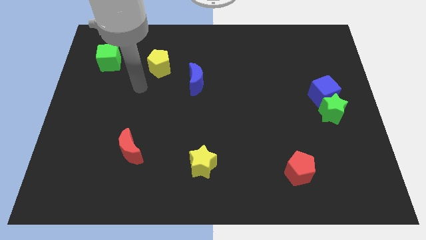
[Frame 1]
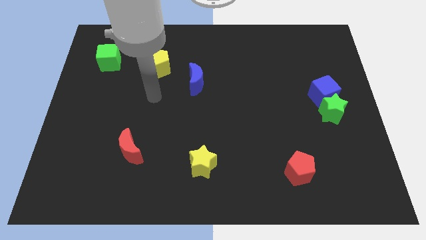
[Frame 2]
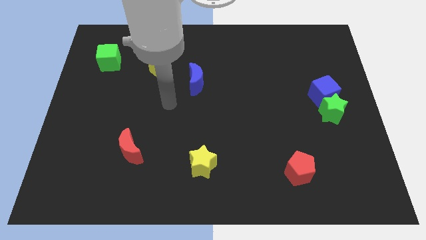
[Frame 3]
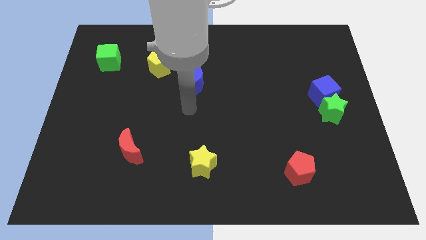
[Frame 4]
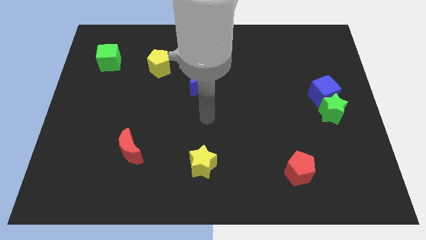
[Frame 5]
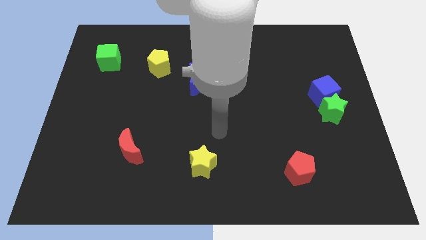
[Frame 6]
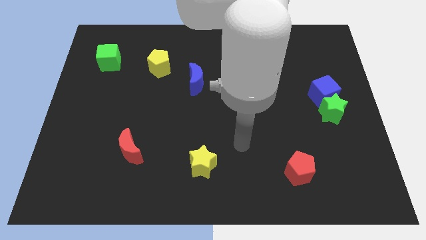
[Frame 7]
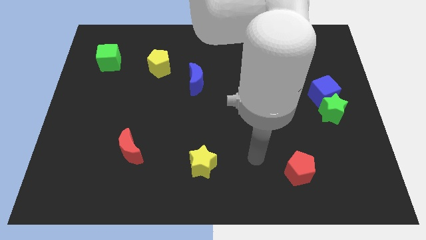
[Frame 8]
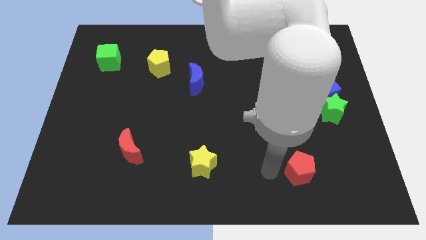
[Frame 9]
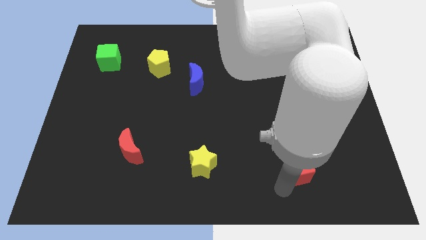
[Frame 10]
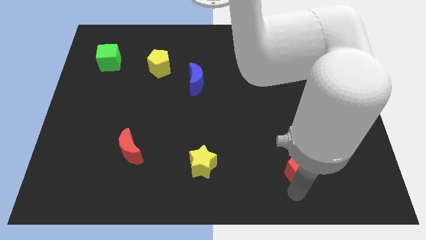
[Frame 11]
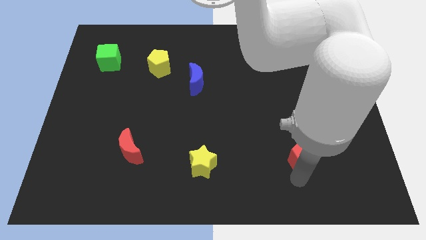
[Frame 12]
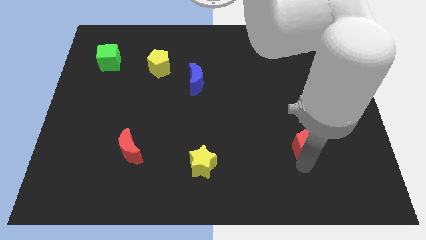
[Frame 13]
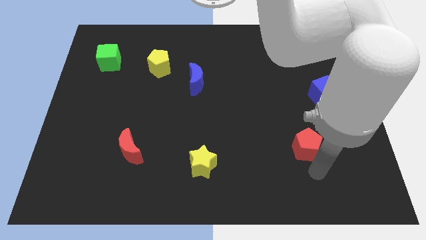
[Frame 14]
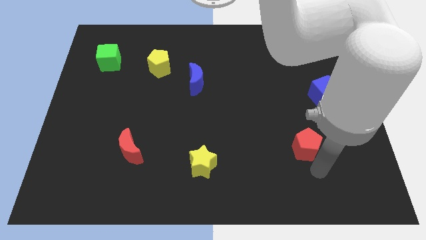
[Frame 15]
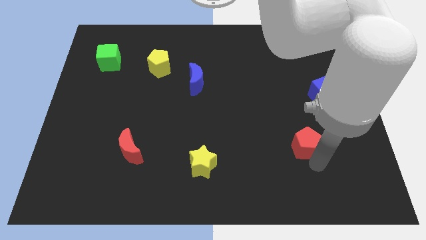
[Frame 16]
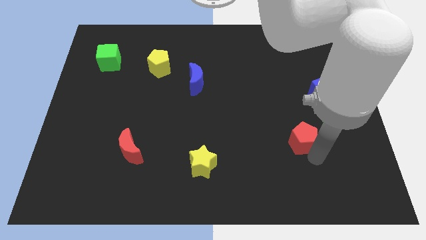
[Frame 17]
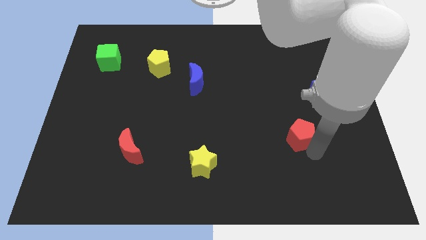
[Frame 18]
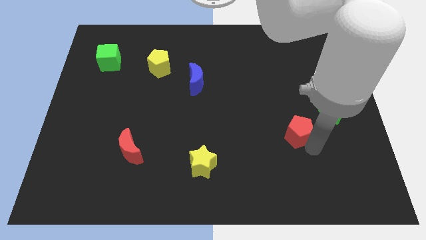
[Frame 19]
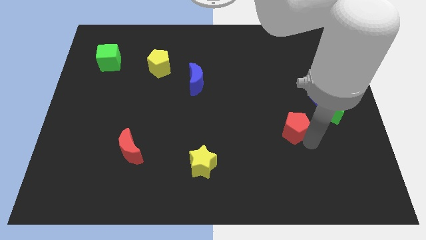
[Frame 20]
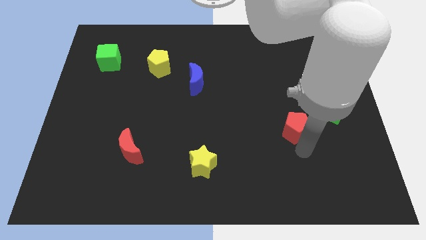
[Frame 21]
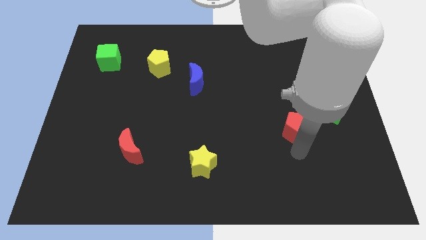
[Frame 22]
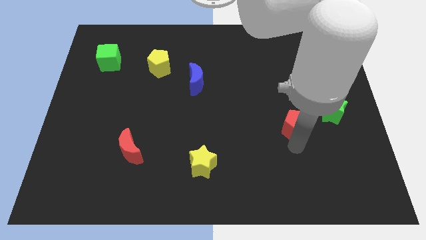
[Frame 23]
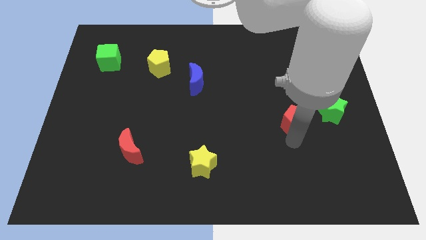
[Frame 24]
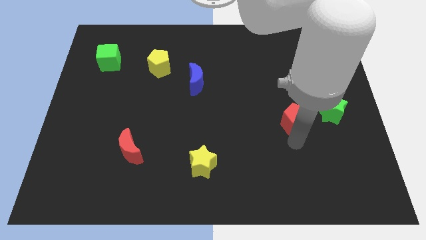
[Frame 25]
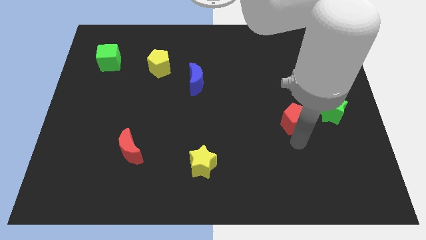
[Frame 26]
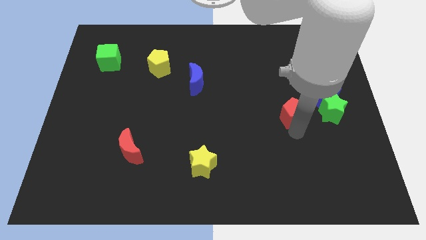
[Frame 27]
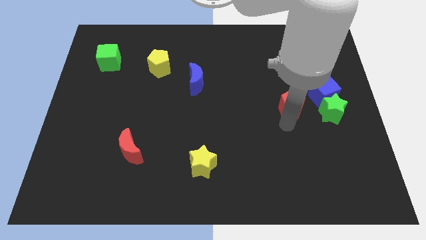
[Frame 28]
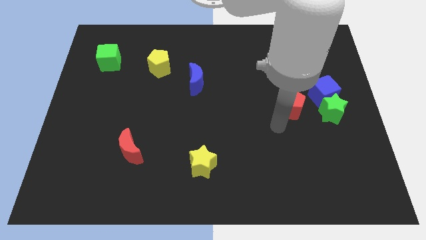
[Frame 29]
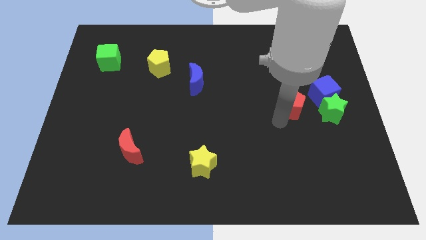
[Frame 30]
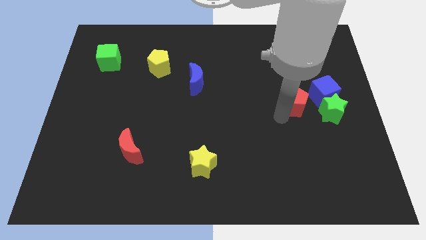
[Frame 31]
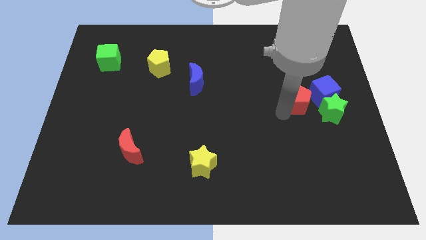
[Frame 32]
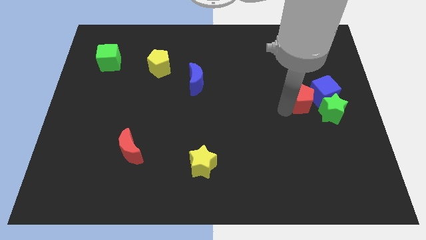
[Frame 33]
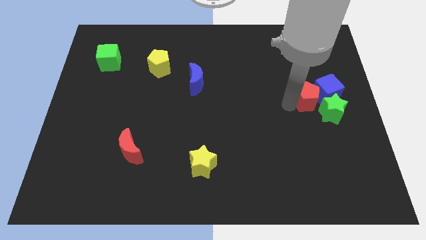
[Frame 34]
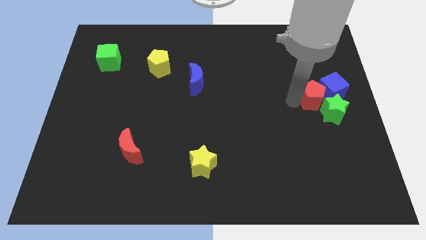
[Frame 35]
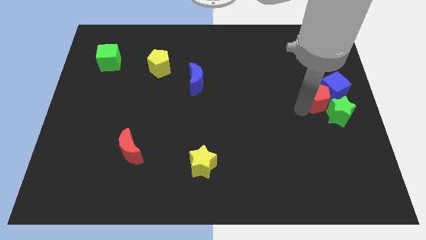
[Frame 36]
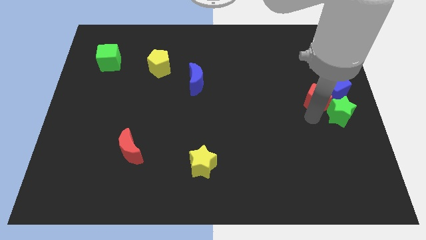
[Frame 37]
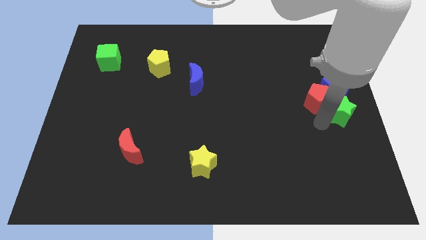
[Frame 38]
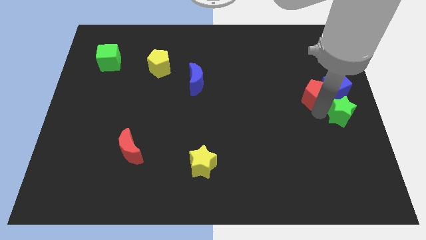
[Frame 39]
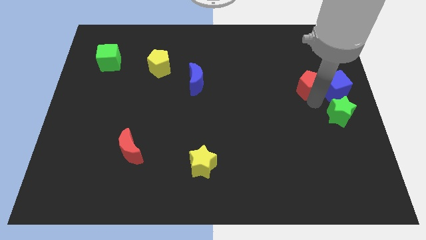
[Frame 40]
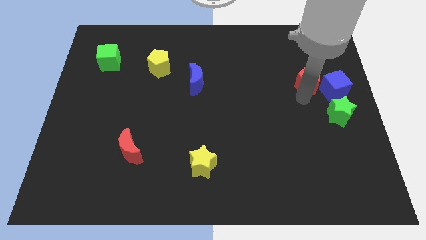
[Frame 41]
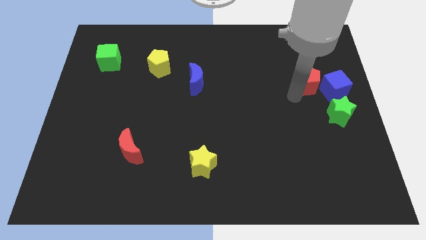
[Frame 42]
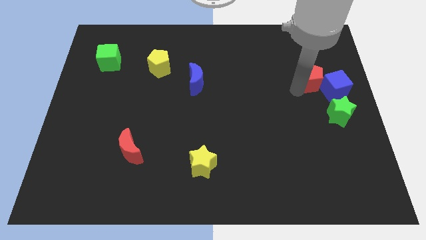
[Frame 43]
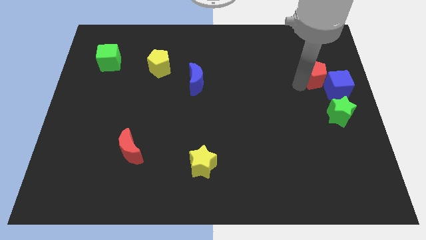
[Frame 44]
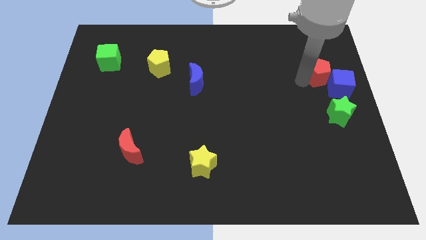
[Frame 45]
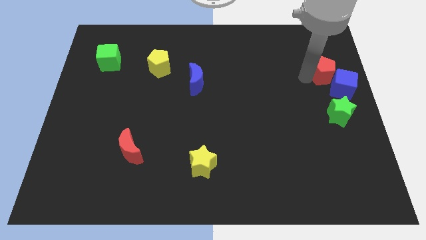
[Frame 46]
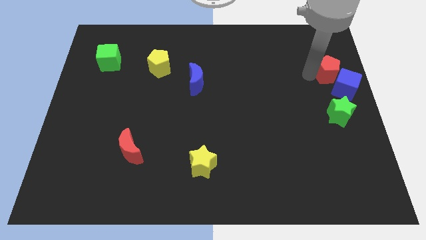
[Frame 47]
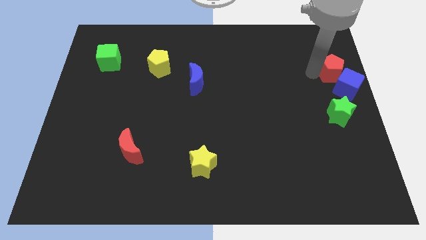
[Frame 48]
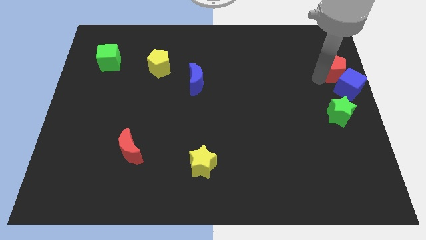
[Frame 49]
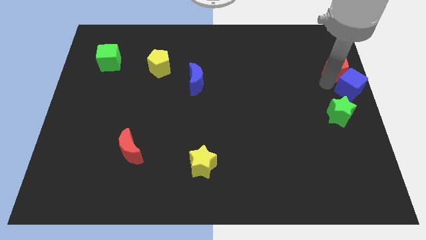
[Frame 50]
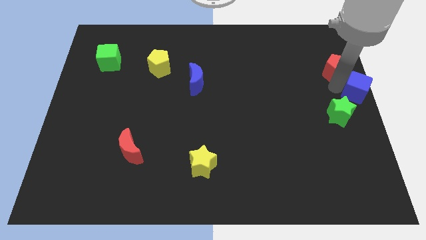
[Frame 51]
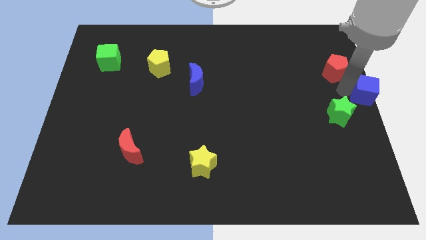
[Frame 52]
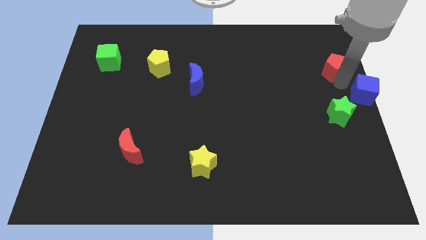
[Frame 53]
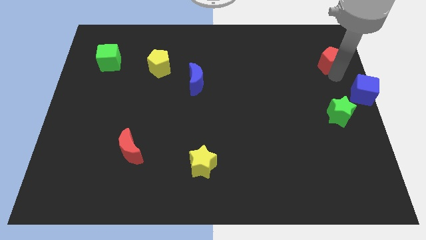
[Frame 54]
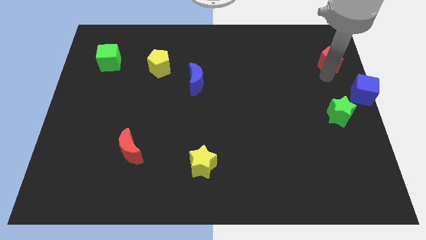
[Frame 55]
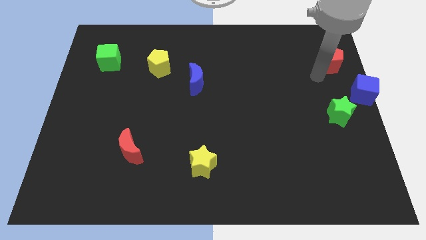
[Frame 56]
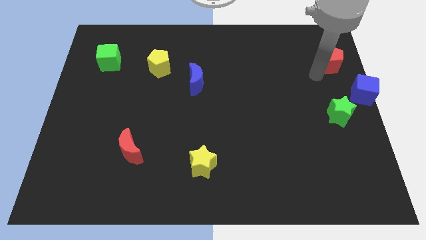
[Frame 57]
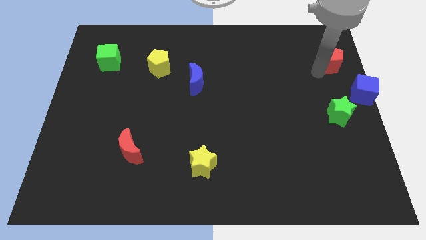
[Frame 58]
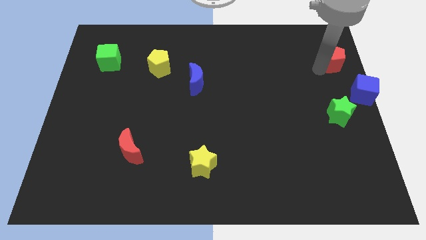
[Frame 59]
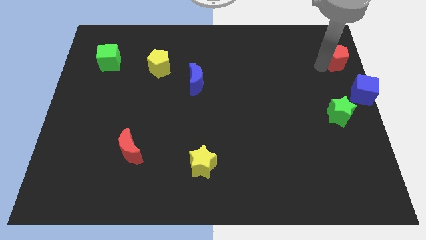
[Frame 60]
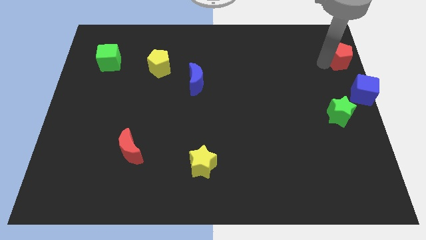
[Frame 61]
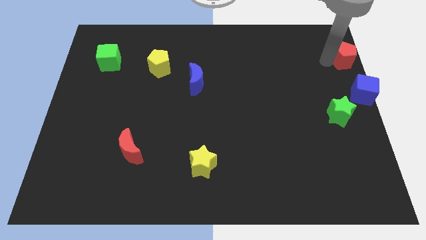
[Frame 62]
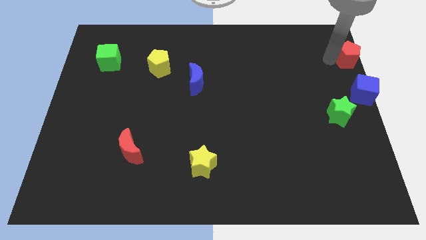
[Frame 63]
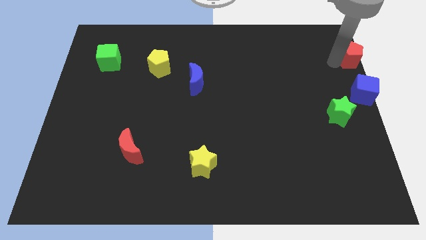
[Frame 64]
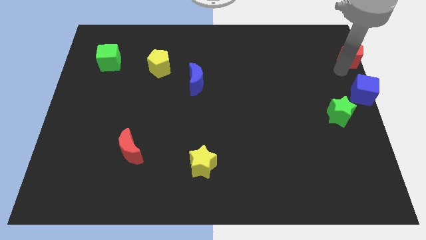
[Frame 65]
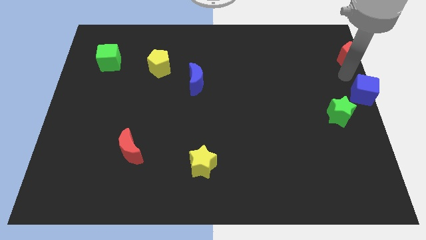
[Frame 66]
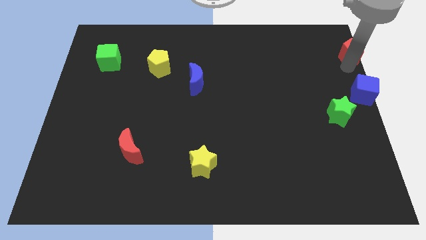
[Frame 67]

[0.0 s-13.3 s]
put the red pentagon to the upper right corner
